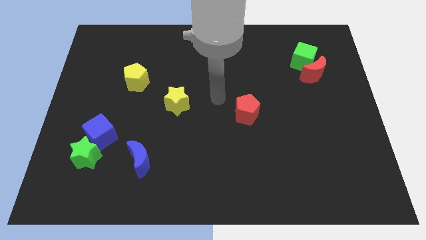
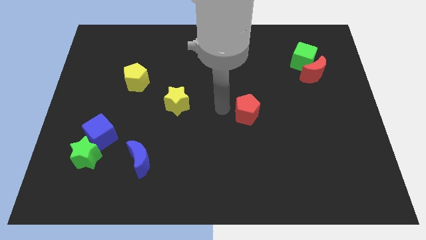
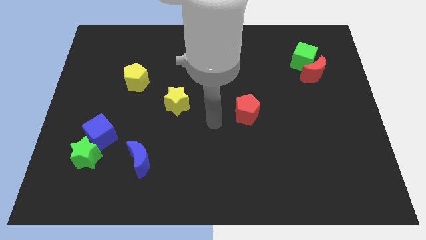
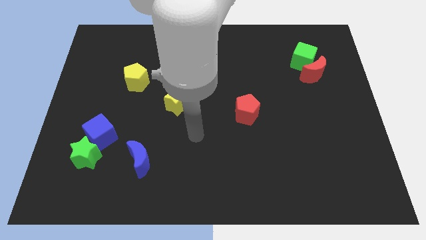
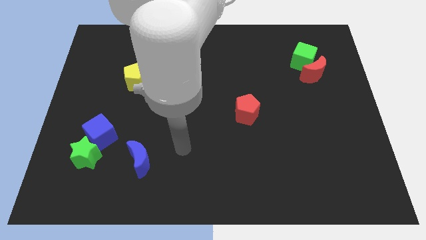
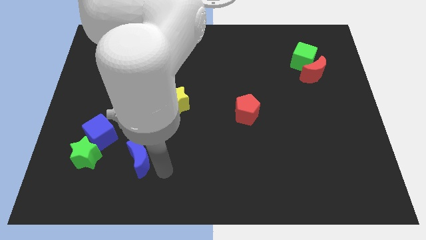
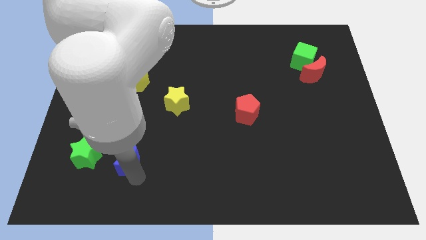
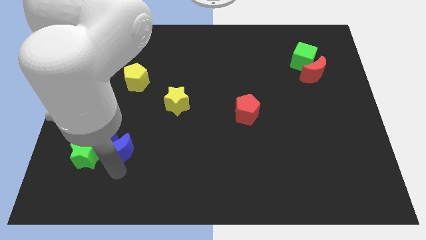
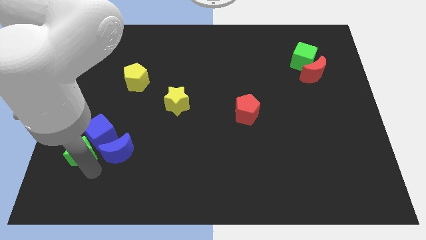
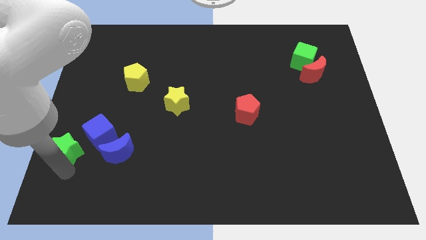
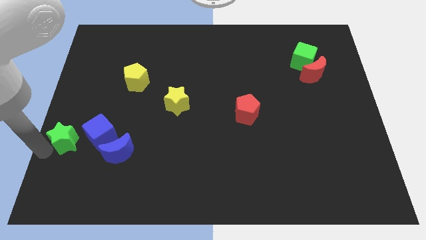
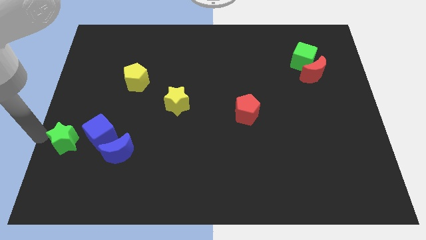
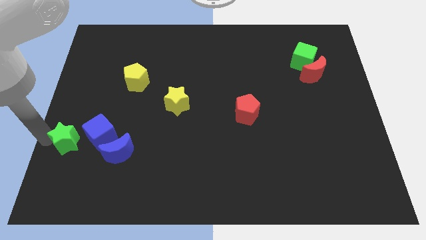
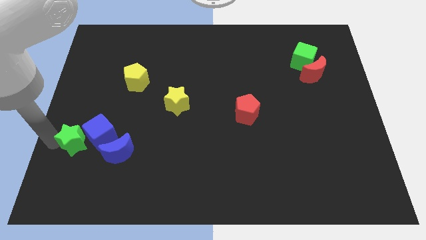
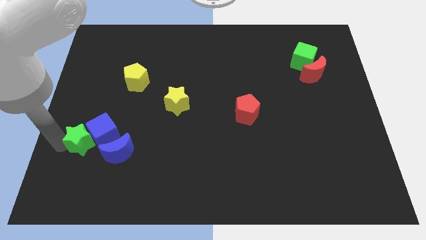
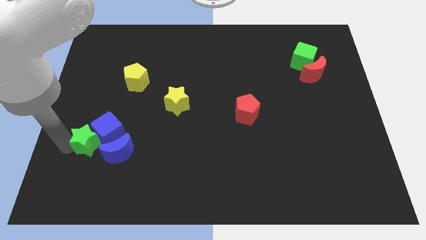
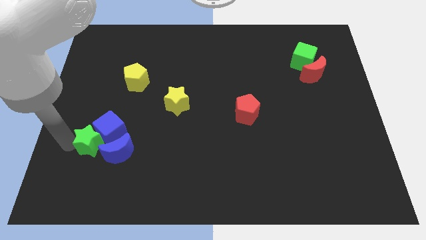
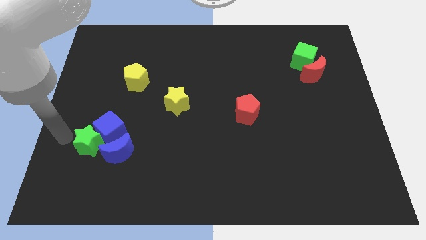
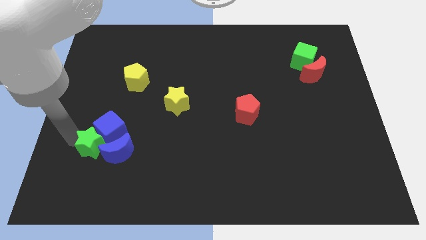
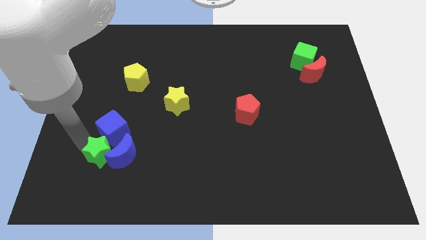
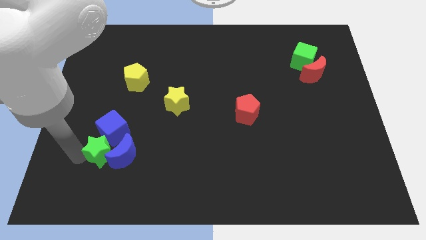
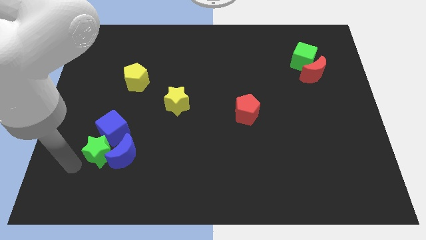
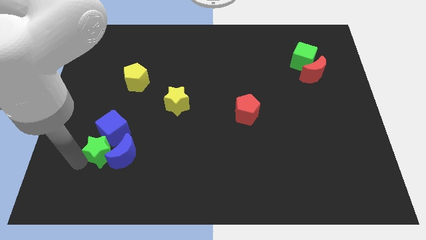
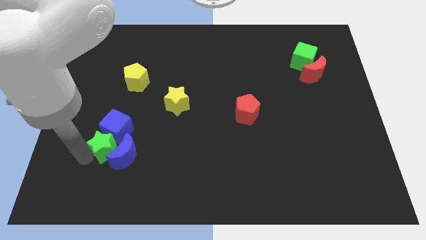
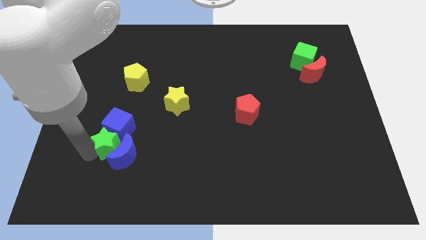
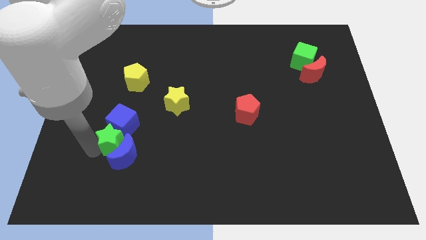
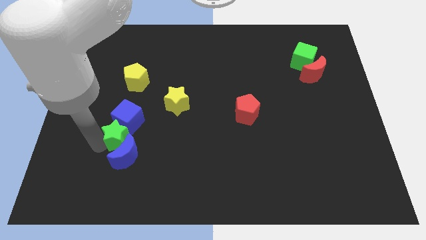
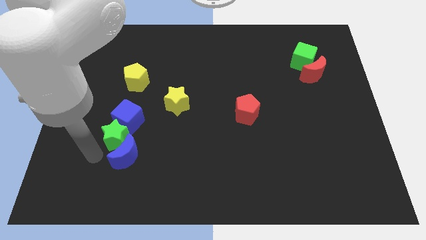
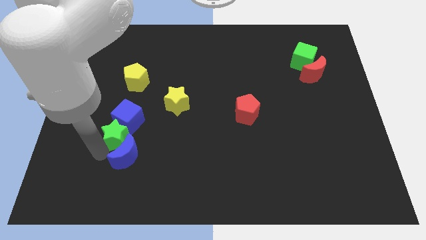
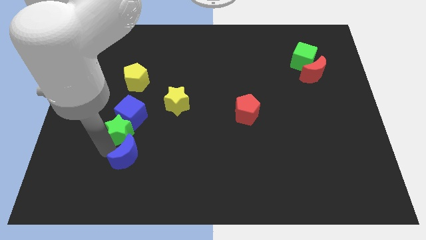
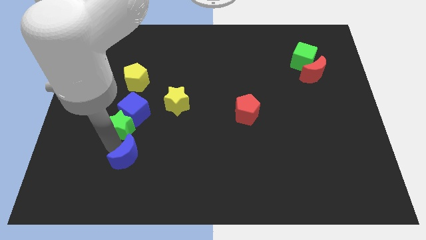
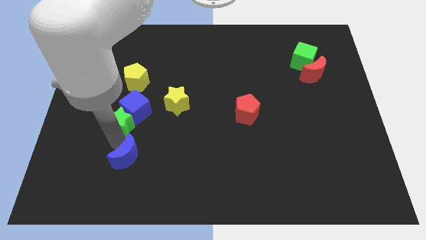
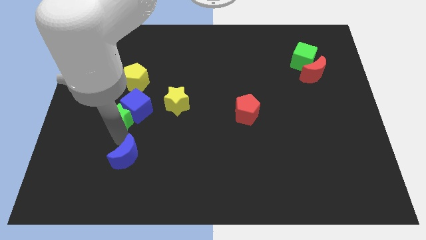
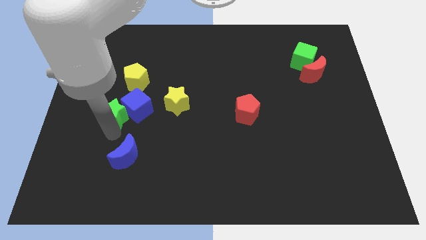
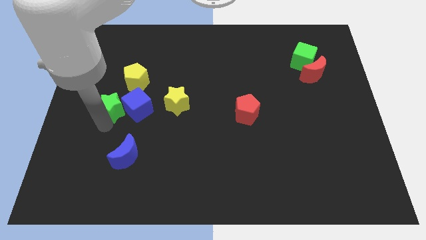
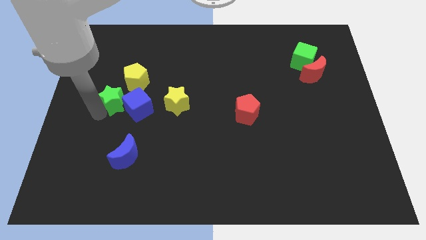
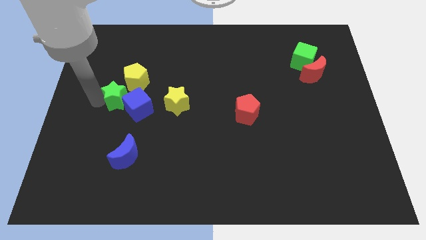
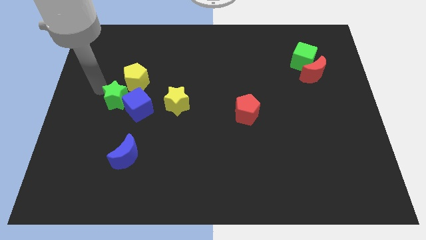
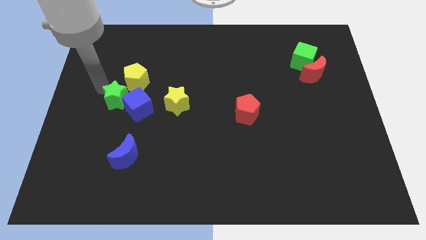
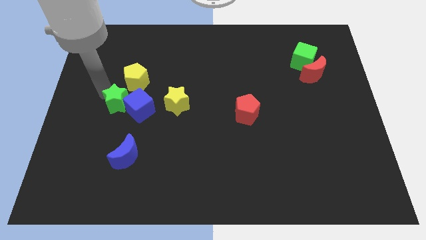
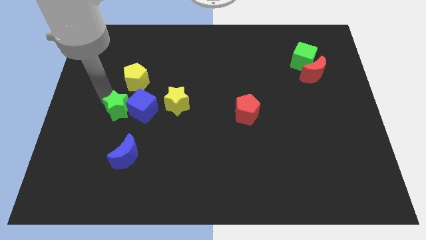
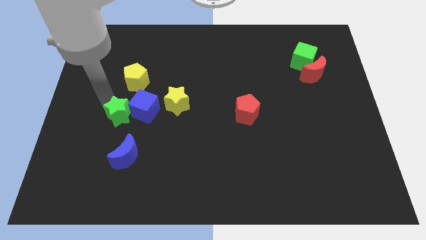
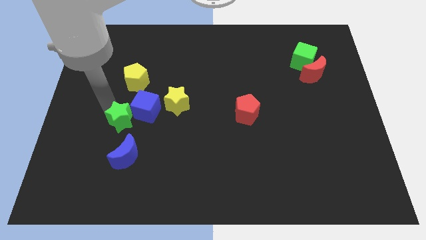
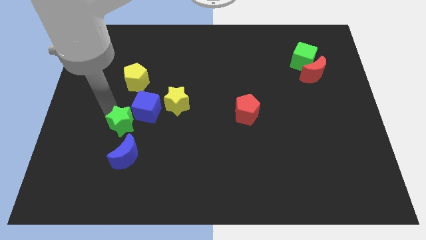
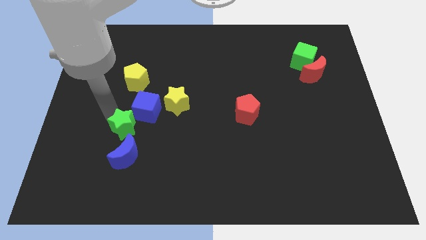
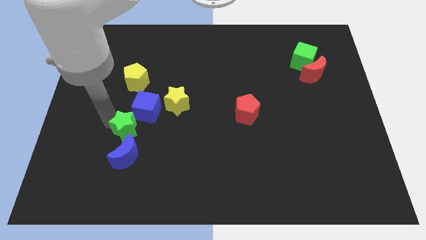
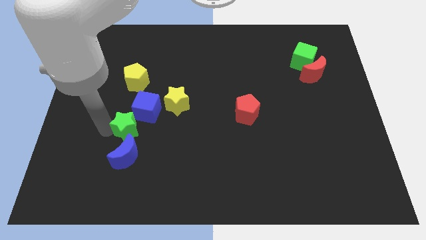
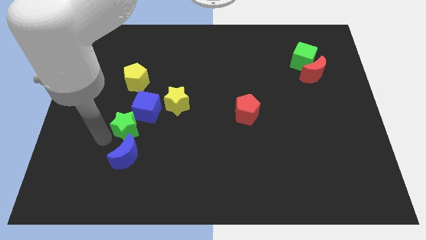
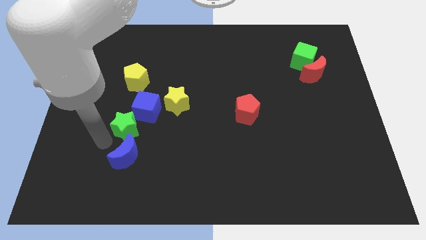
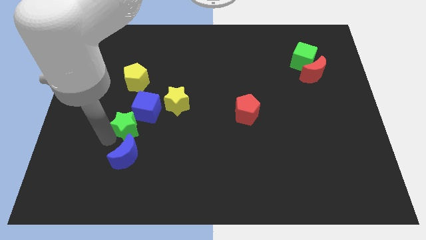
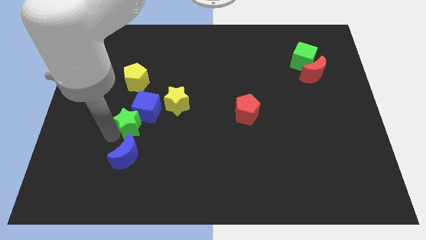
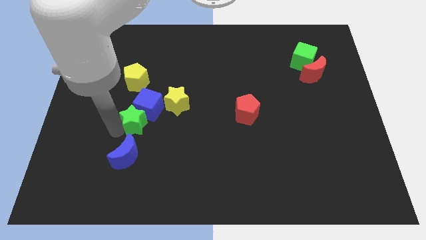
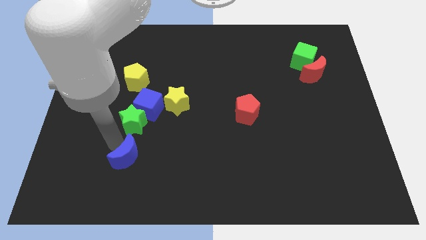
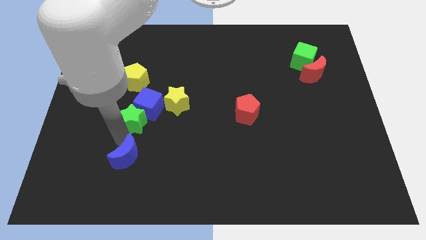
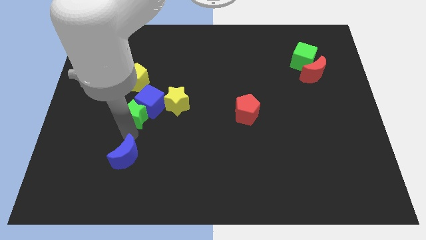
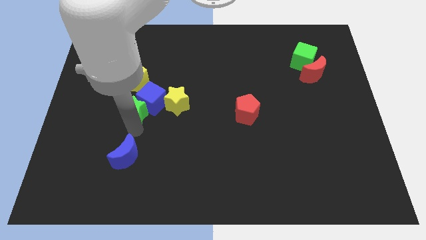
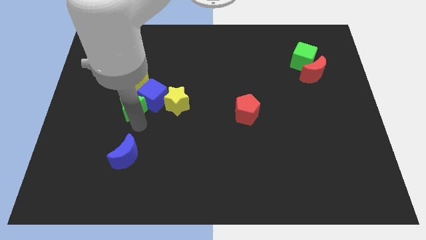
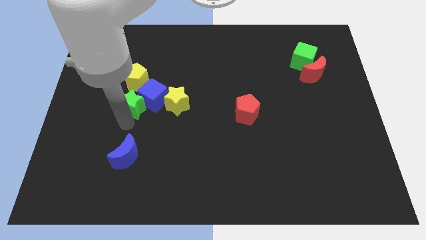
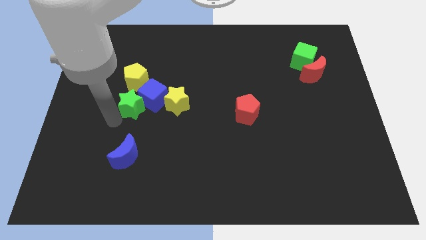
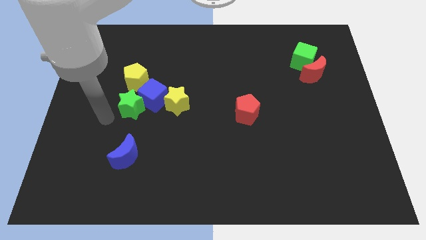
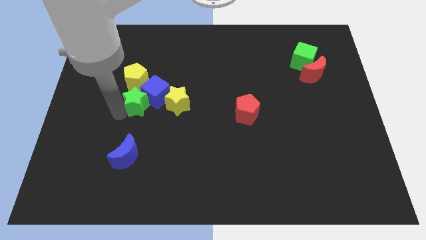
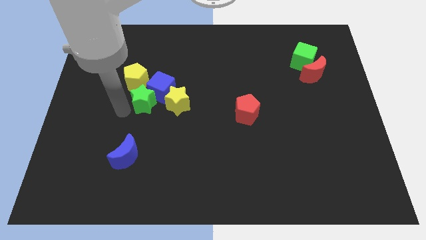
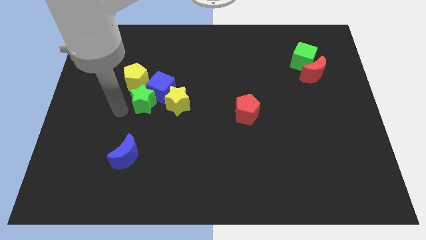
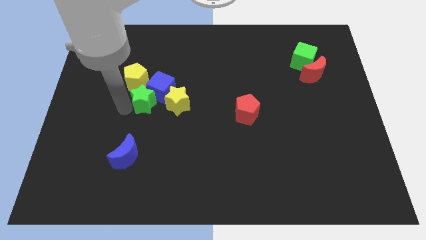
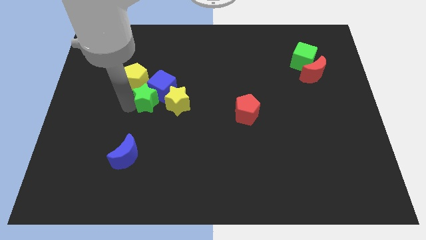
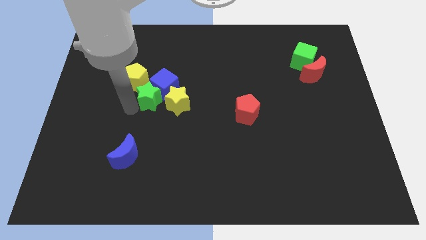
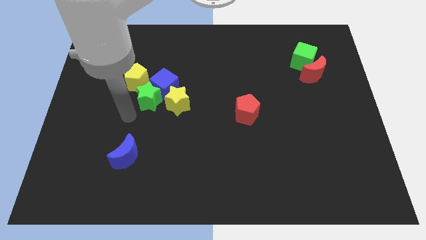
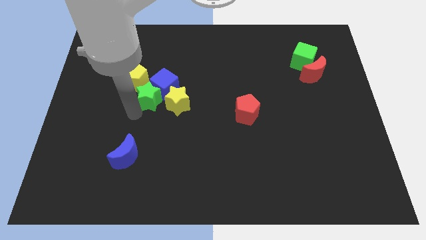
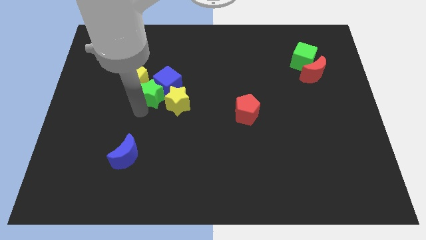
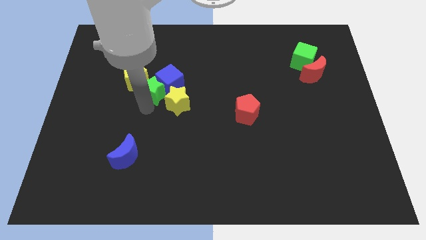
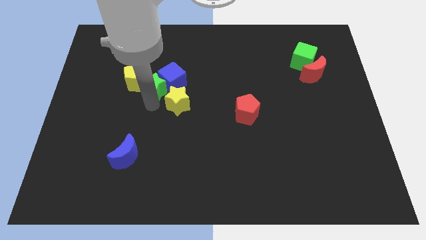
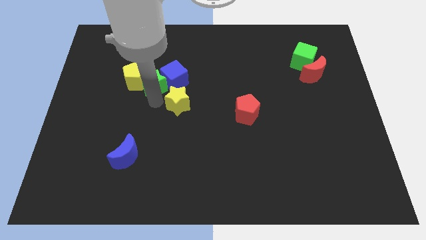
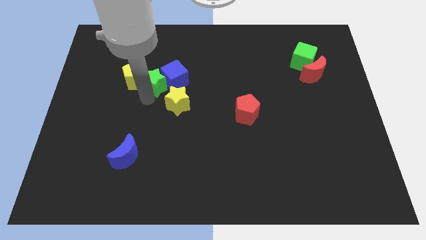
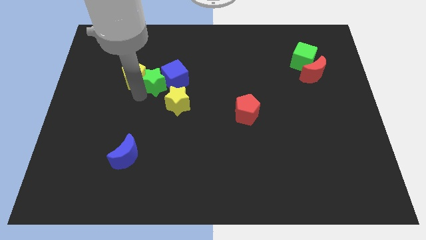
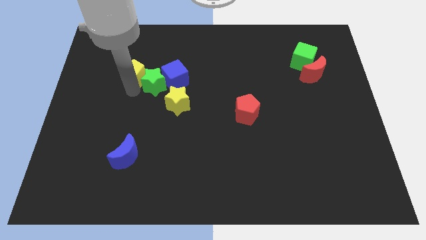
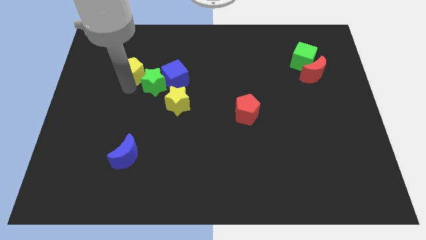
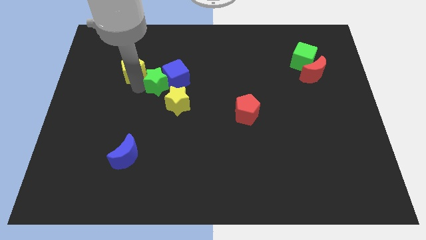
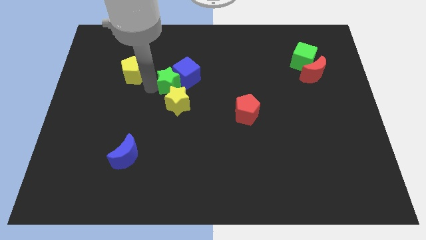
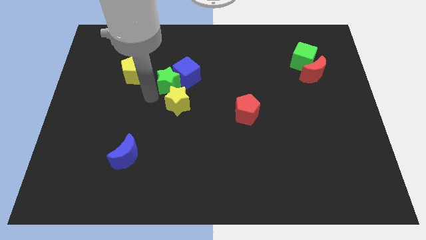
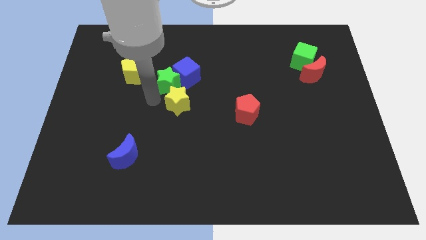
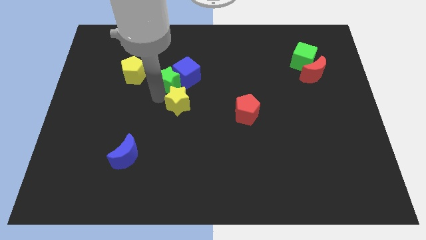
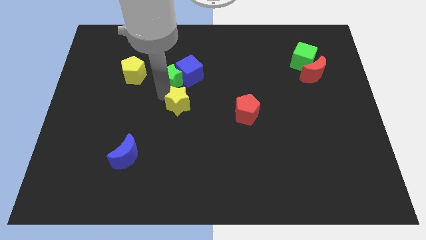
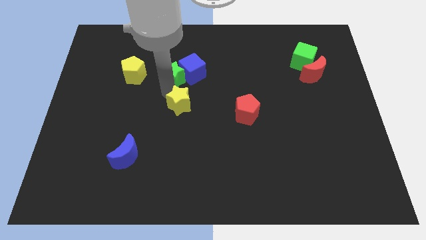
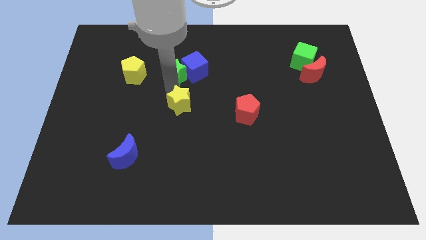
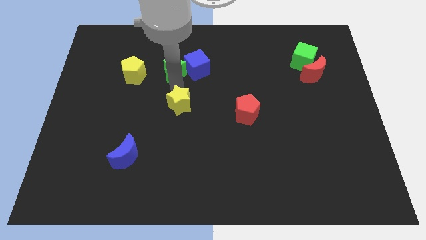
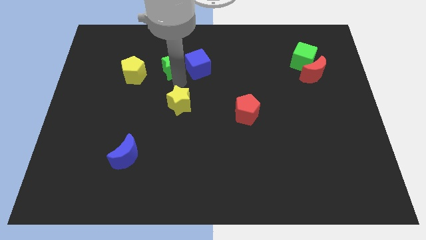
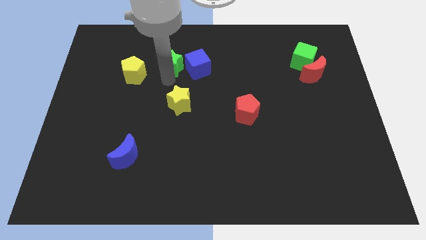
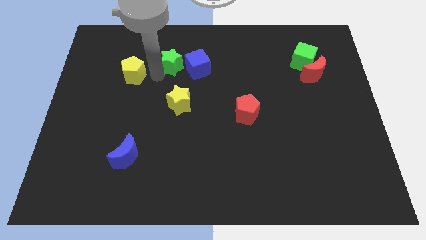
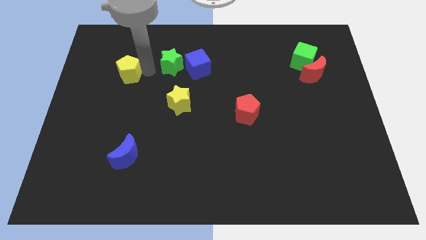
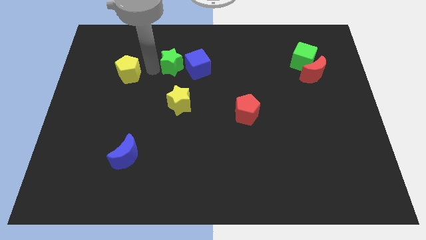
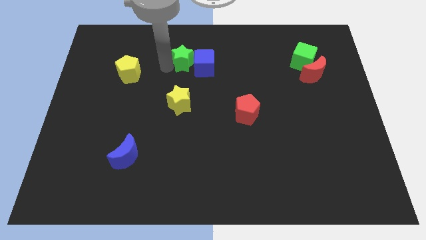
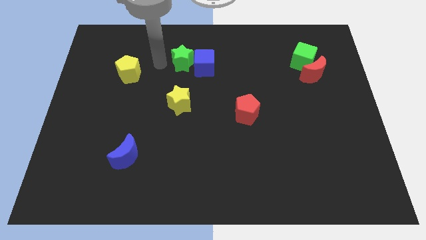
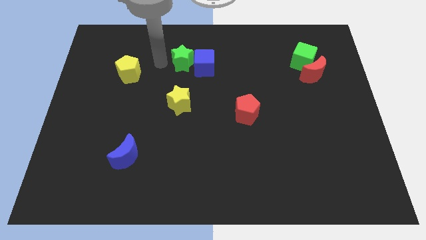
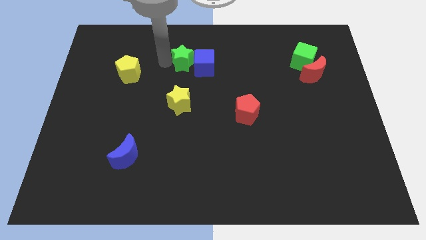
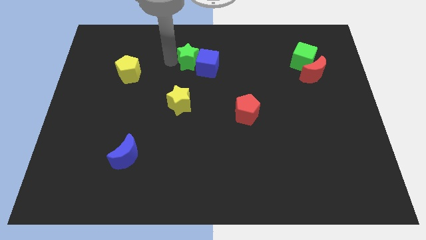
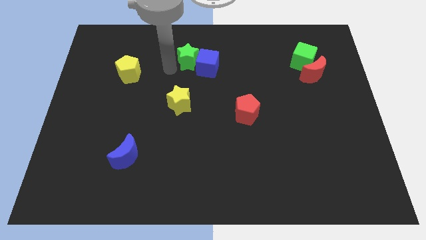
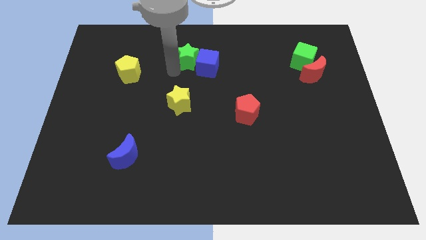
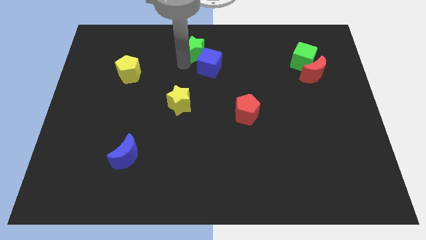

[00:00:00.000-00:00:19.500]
move the green star to the top side
